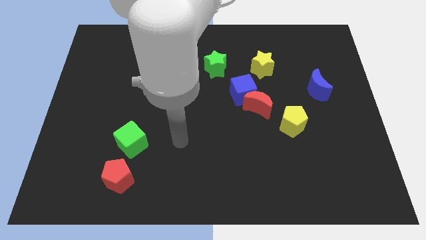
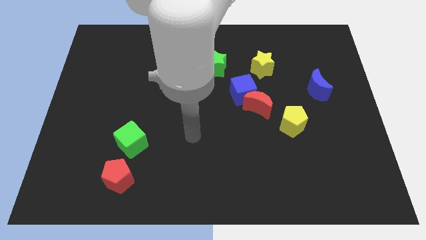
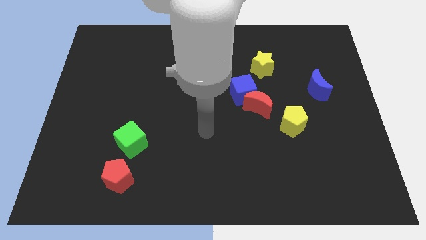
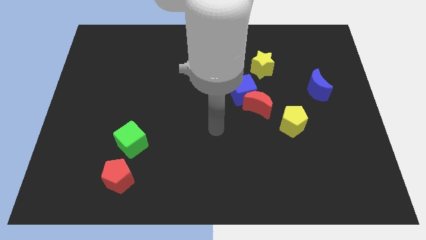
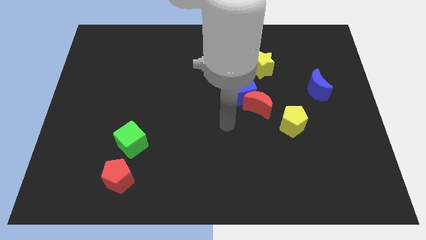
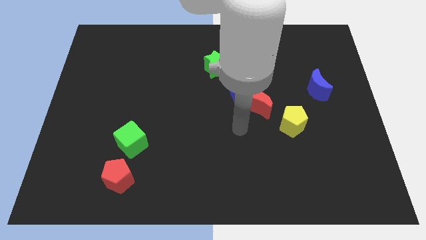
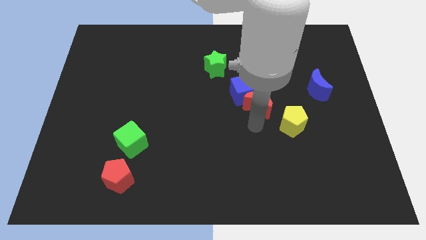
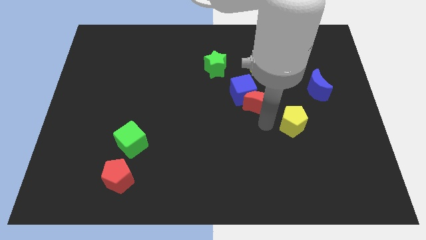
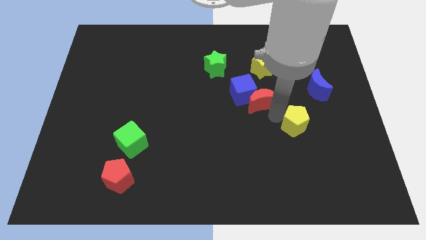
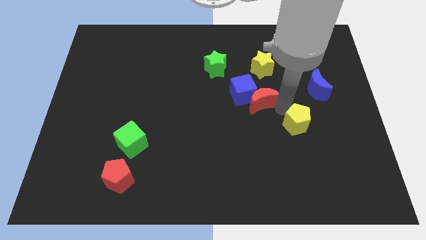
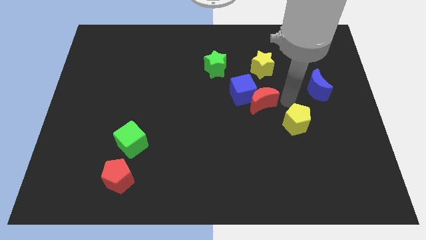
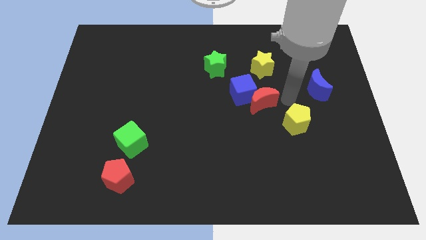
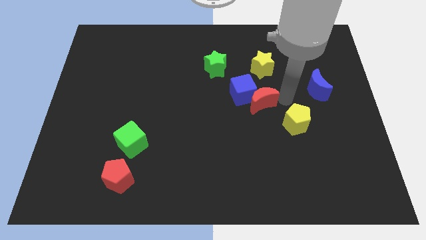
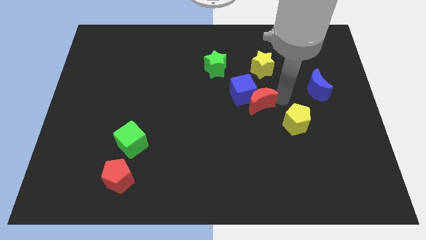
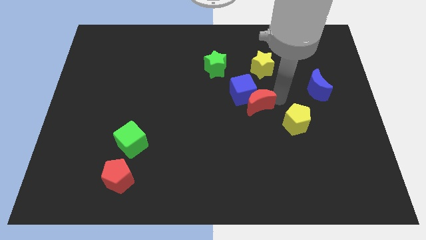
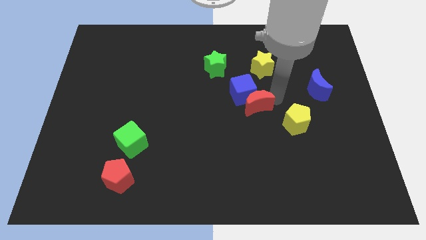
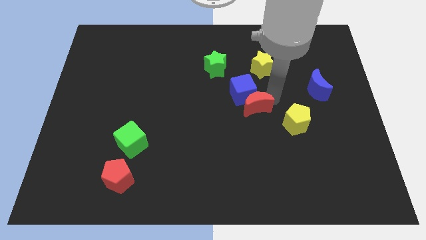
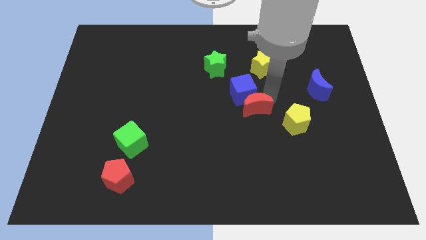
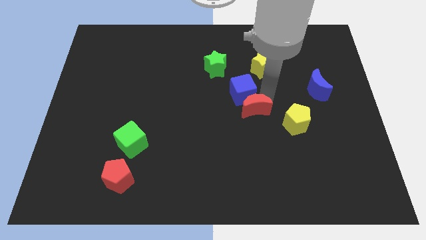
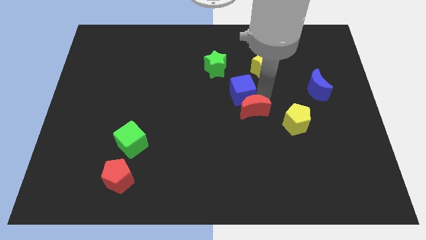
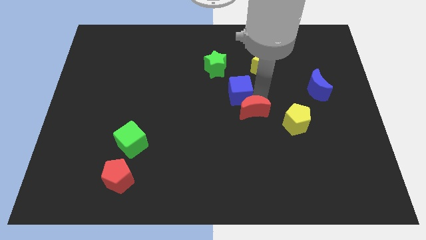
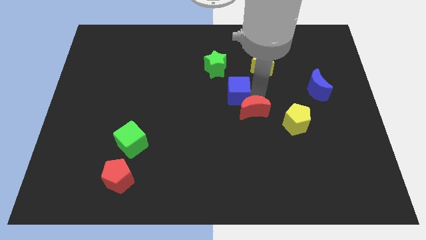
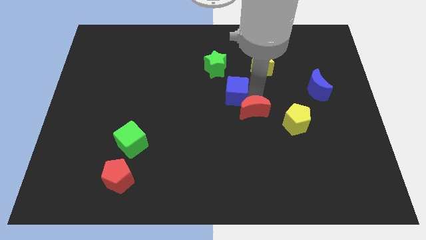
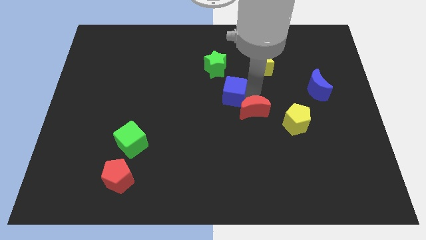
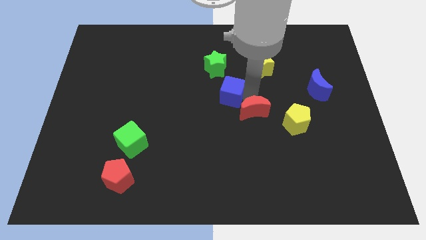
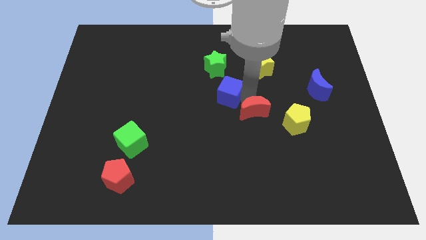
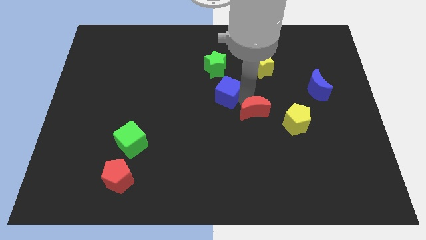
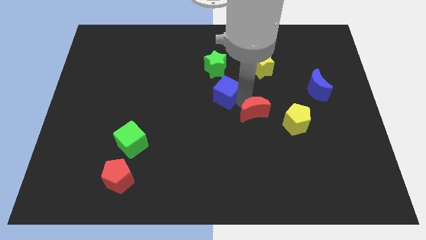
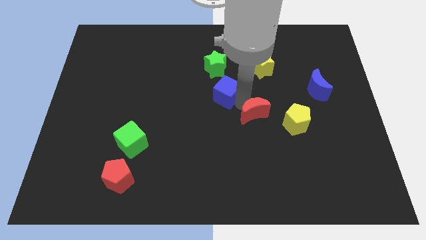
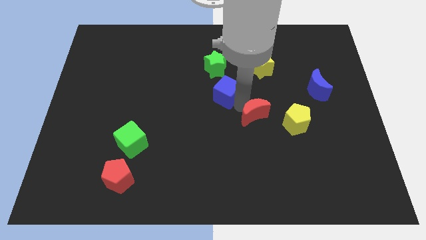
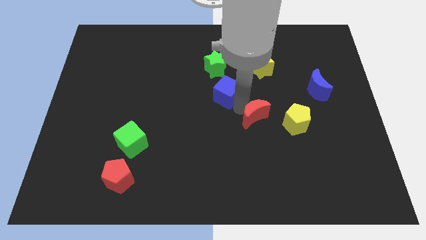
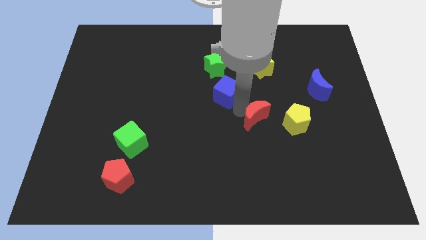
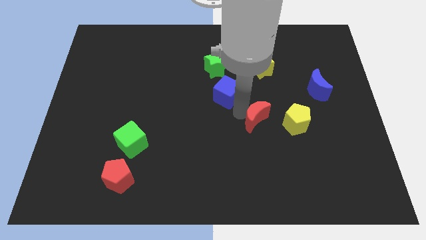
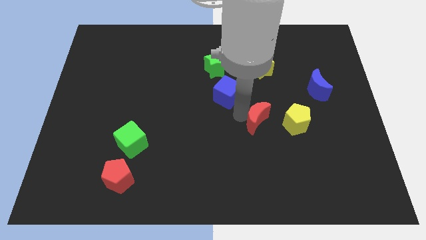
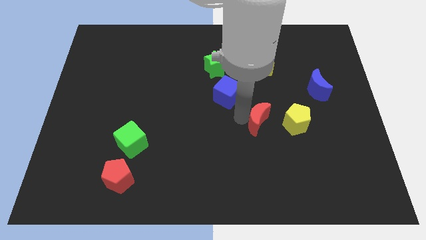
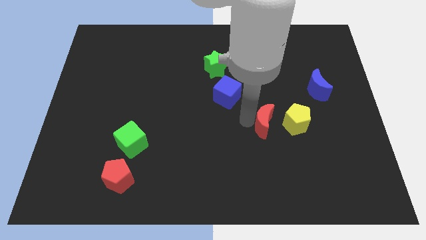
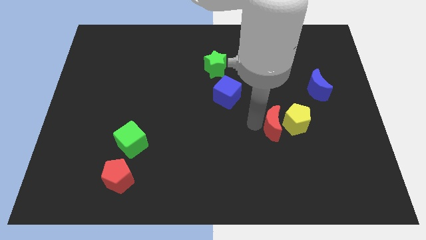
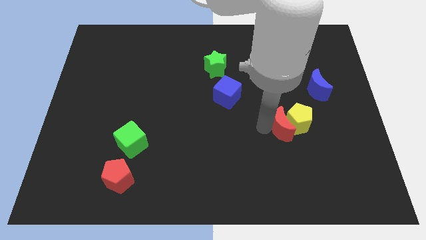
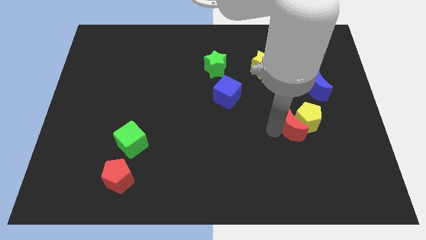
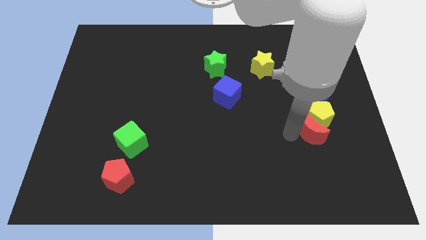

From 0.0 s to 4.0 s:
pull the red moon apart from the blue cube and yellow pentagon

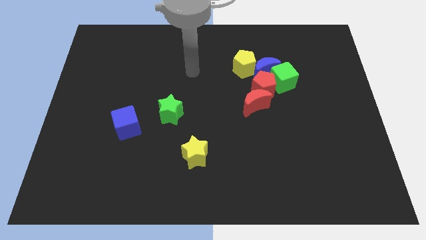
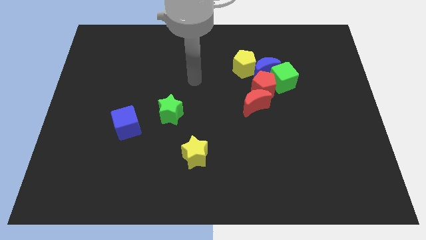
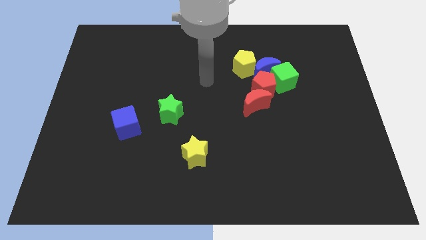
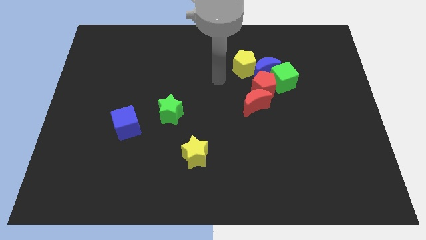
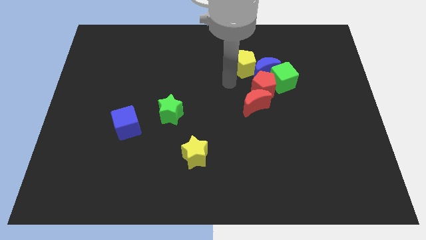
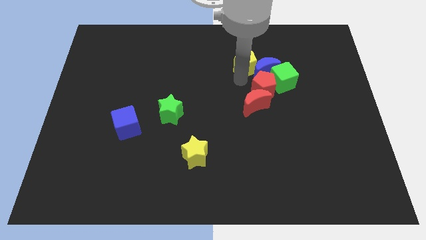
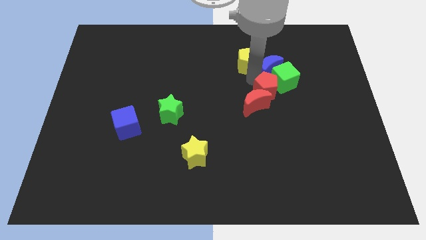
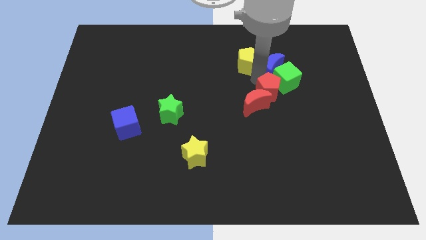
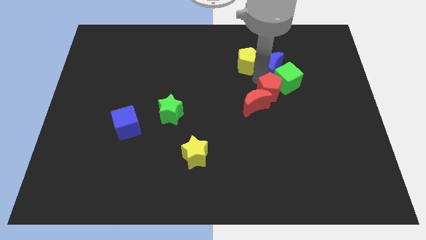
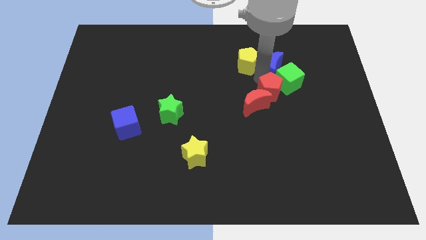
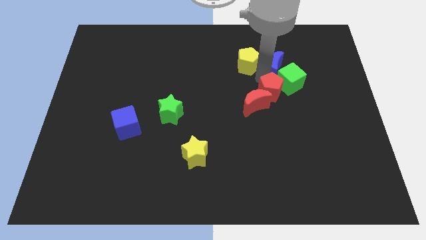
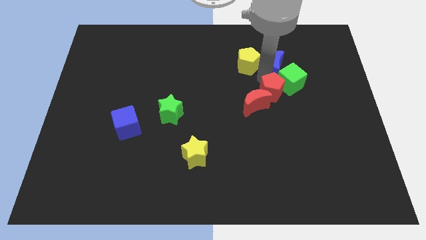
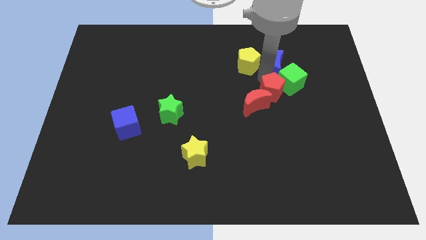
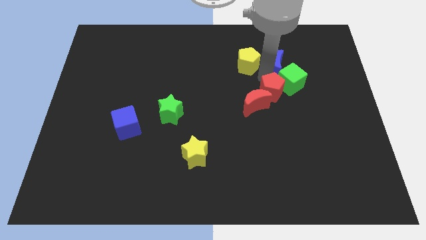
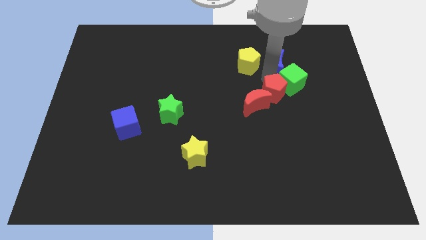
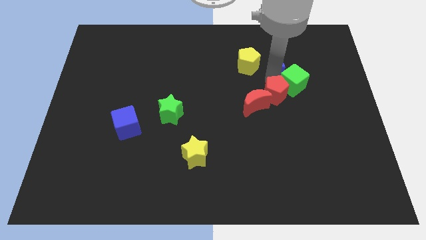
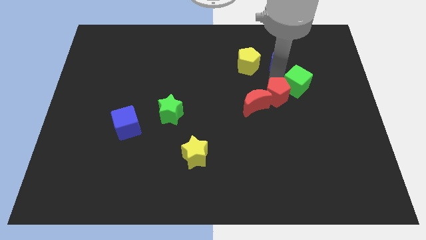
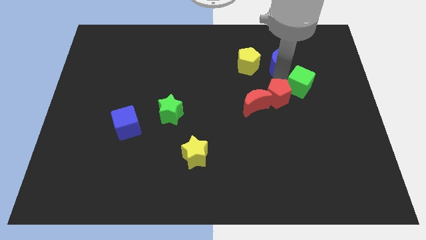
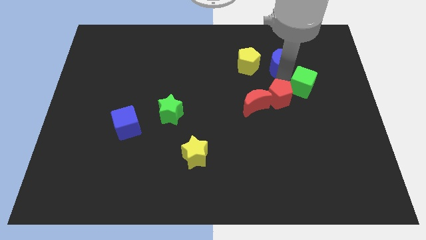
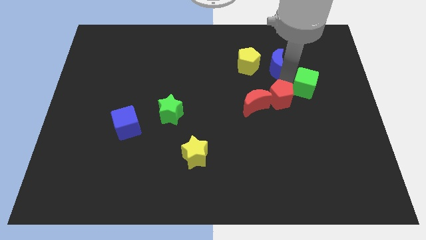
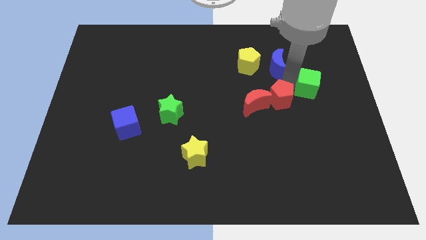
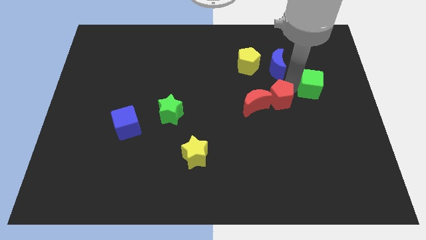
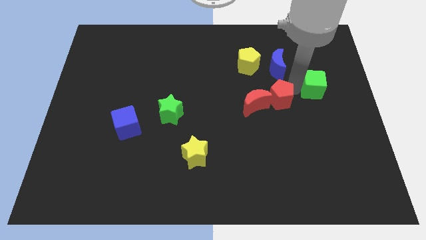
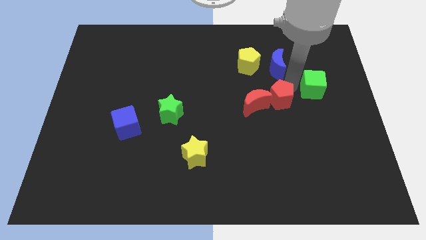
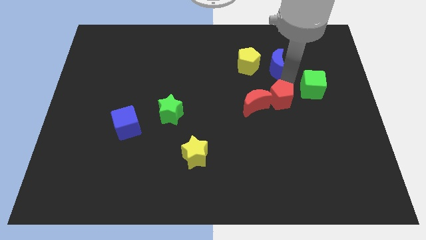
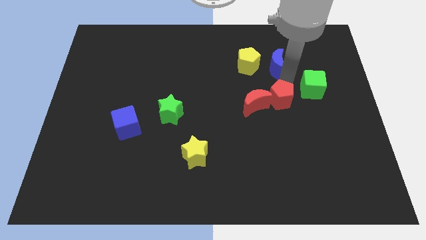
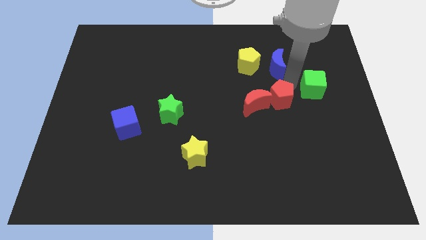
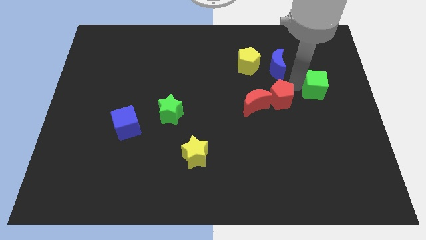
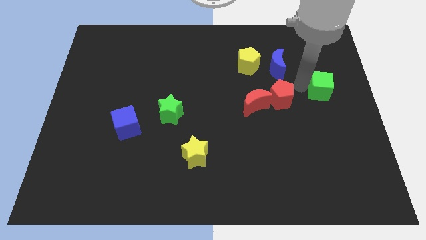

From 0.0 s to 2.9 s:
move the green cube away from the blue moon and red pentagon

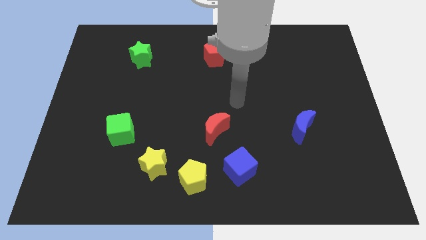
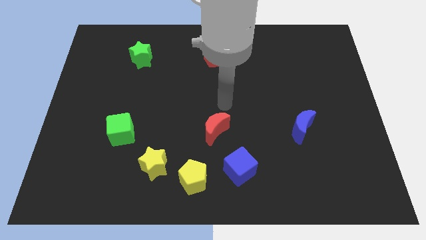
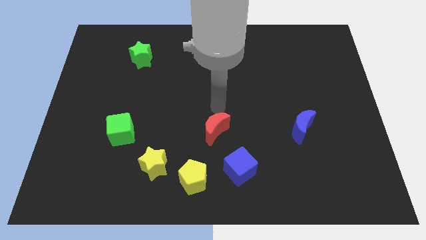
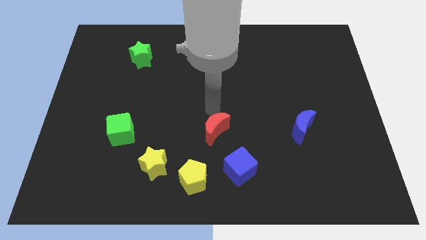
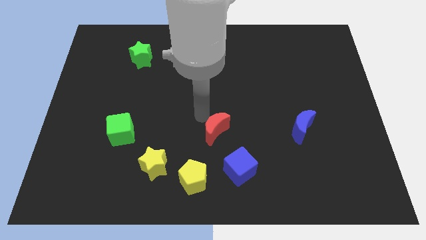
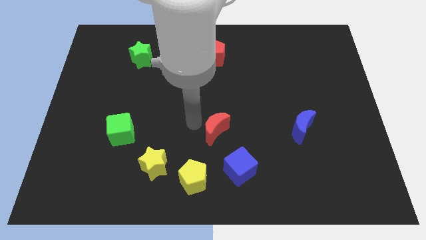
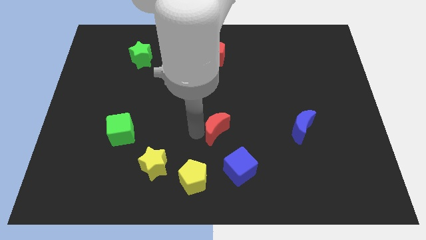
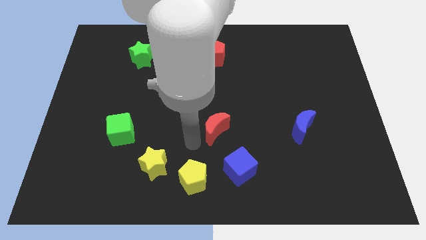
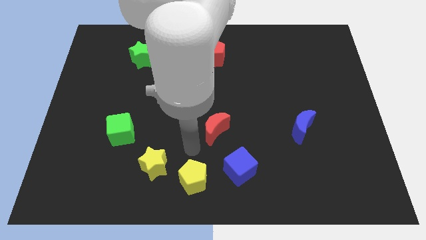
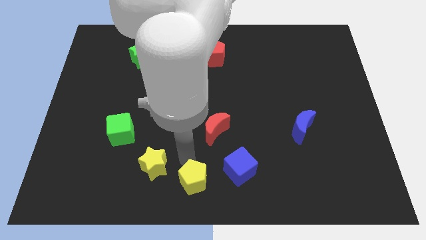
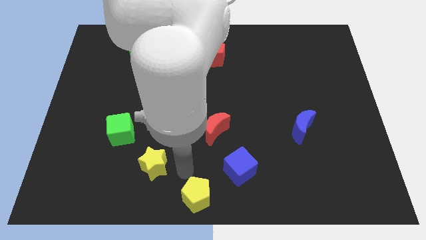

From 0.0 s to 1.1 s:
separate the yellow star from the yellow pentagon

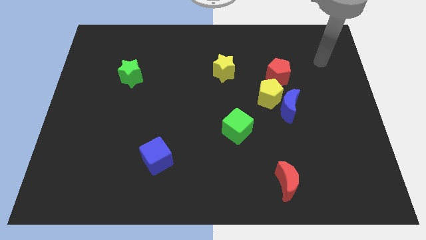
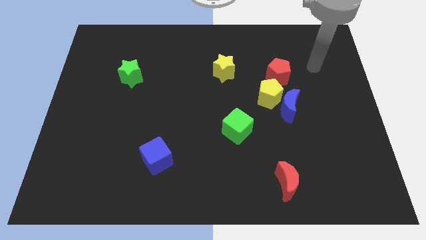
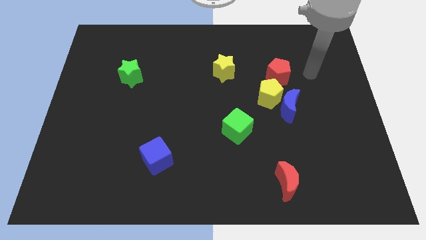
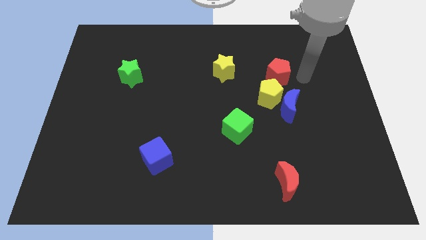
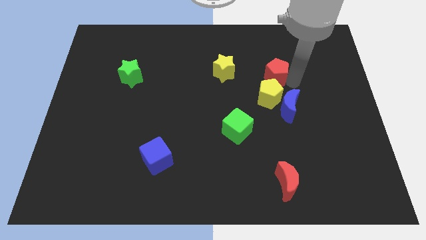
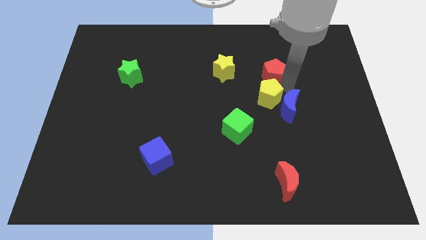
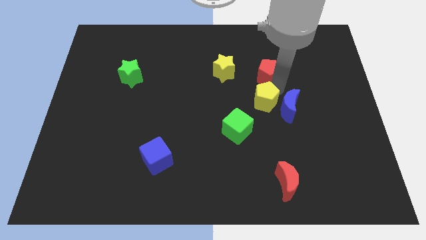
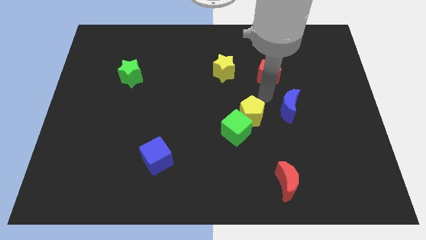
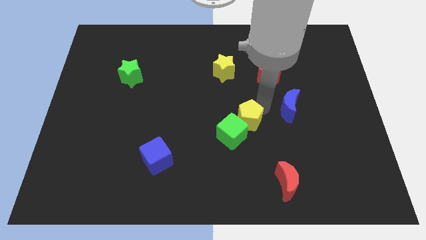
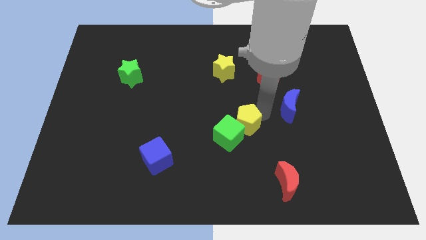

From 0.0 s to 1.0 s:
move the blue moon away from the yellow pentagon

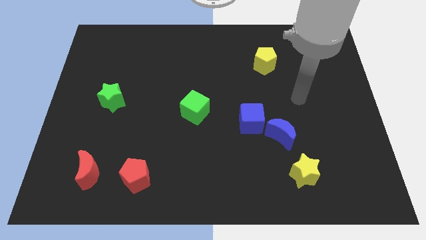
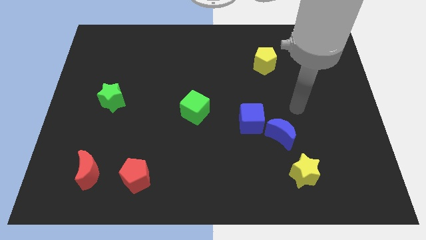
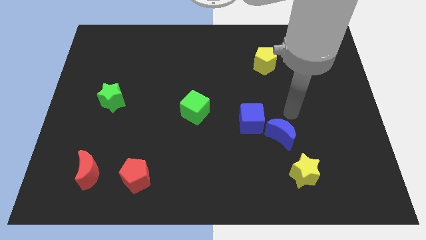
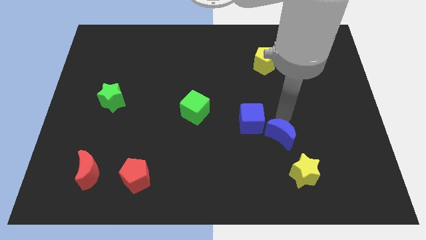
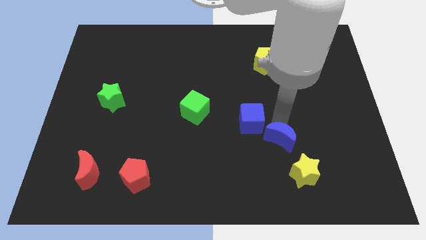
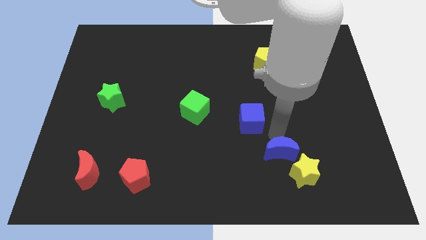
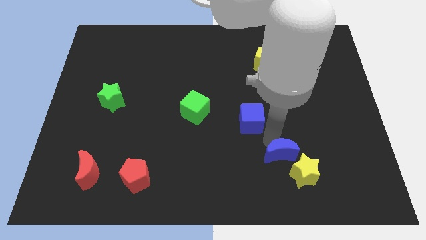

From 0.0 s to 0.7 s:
separate the blue cube from the blue moon
